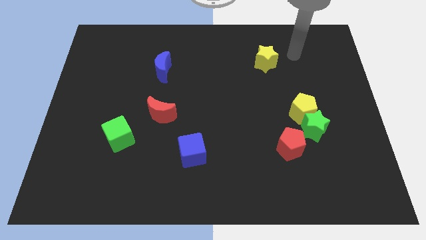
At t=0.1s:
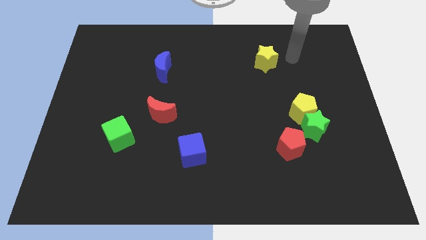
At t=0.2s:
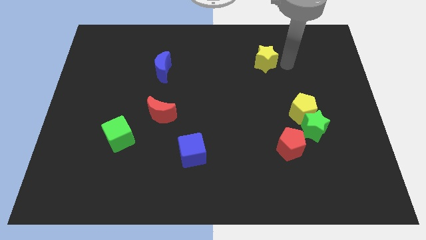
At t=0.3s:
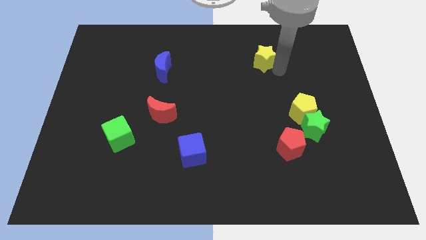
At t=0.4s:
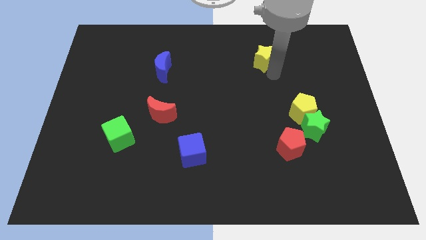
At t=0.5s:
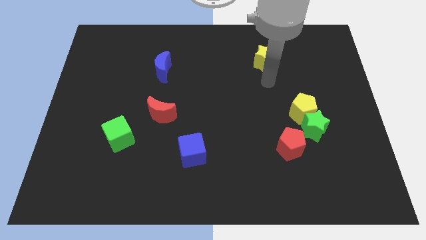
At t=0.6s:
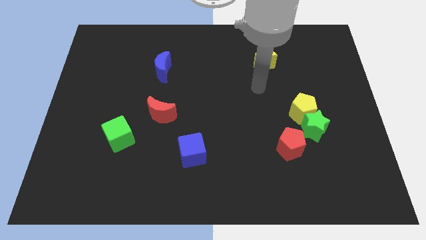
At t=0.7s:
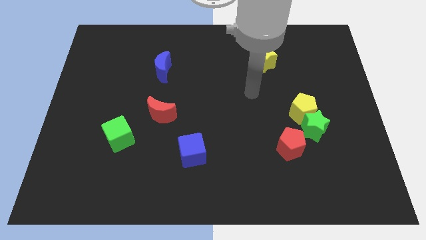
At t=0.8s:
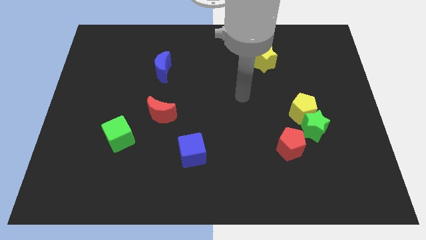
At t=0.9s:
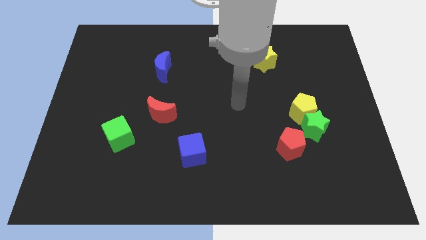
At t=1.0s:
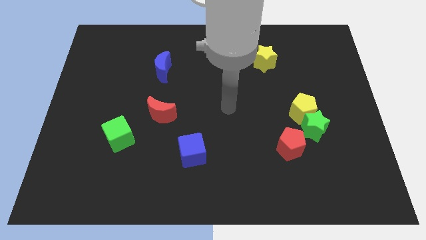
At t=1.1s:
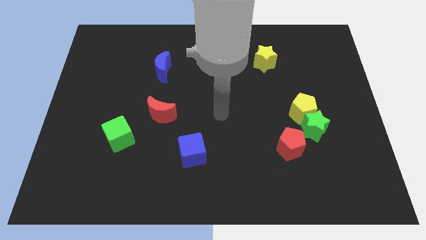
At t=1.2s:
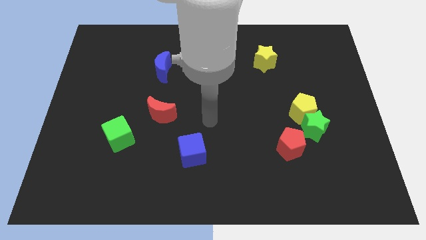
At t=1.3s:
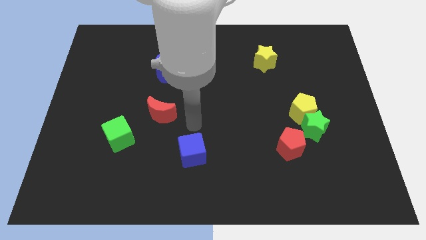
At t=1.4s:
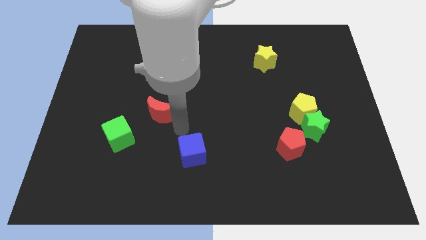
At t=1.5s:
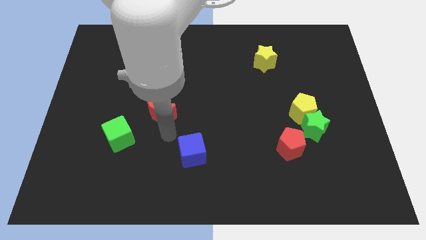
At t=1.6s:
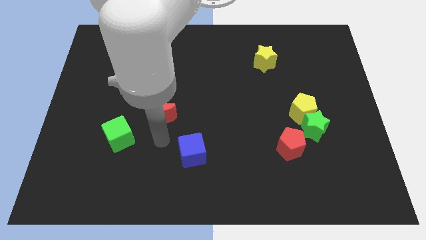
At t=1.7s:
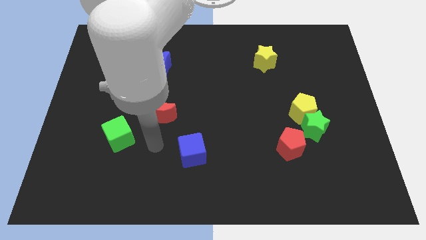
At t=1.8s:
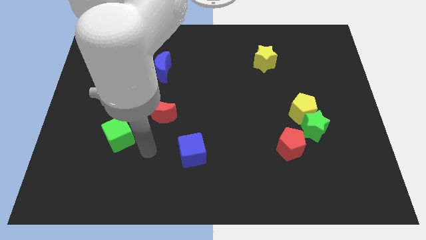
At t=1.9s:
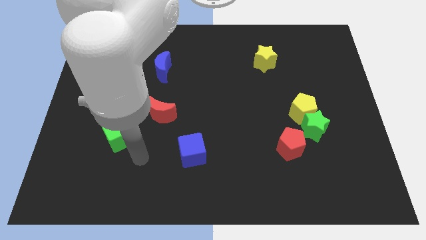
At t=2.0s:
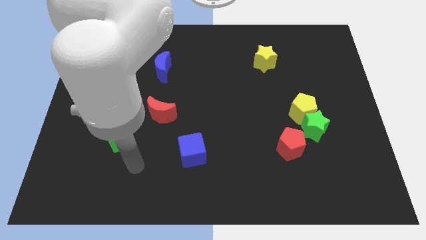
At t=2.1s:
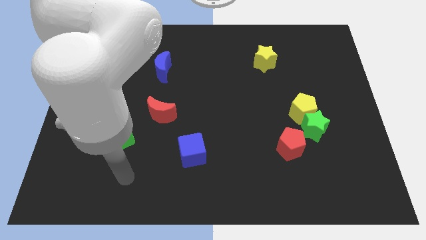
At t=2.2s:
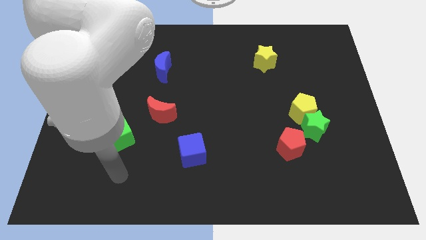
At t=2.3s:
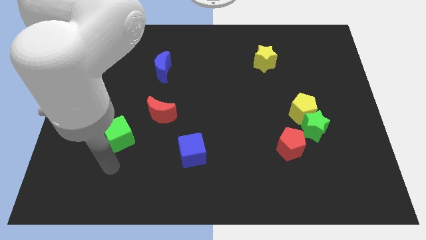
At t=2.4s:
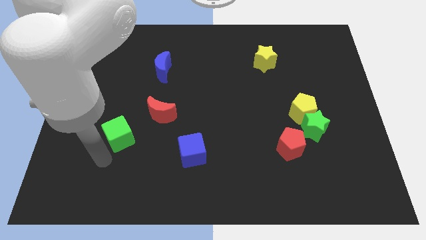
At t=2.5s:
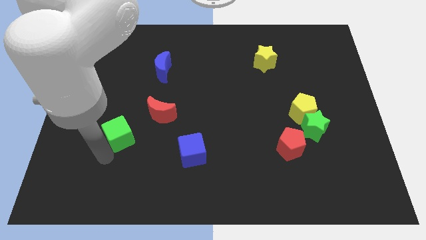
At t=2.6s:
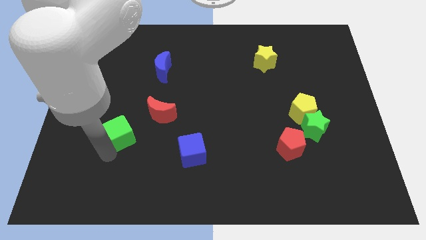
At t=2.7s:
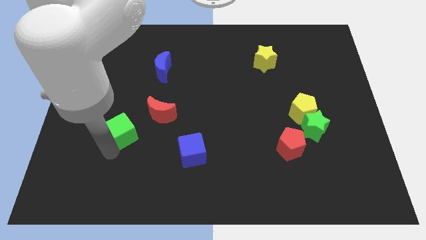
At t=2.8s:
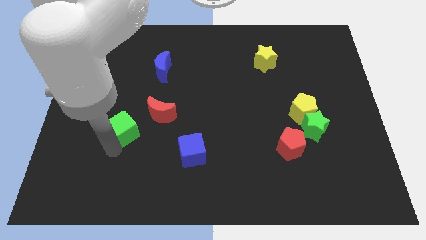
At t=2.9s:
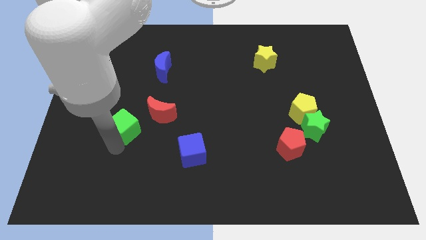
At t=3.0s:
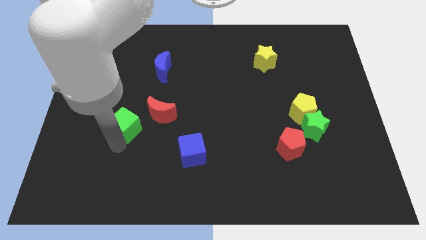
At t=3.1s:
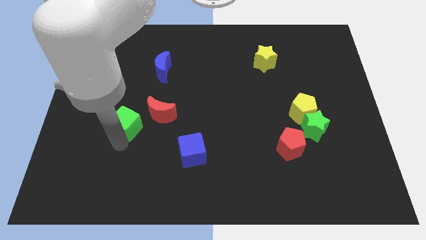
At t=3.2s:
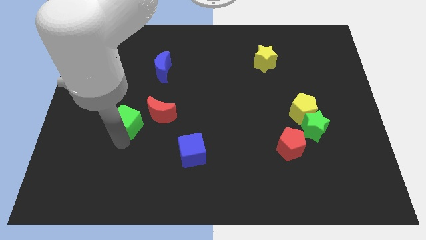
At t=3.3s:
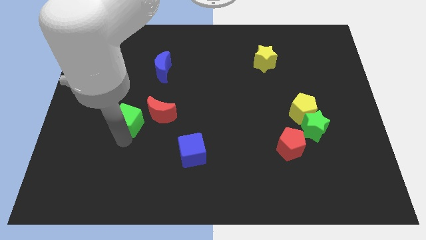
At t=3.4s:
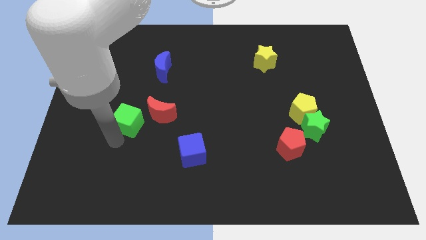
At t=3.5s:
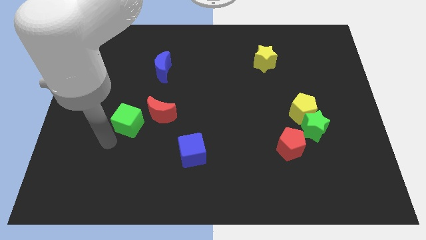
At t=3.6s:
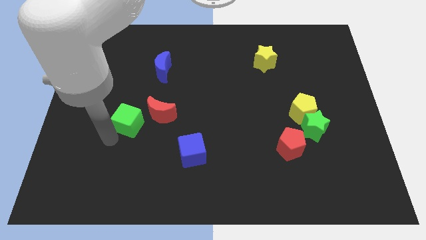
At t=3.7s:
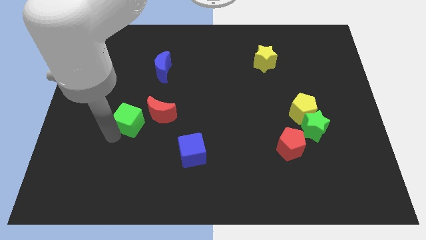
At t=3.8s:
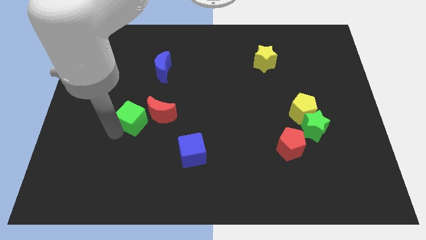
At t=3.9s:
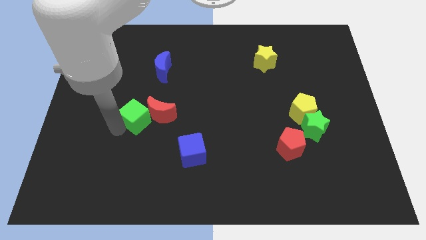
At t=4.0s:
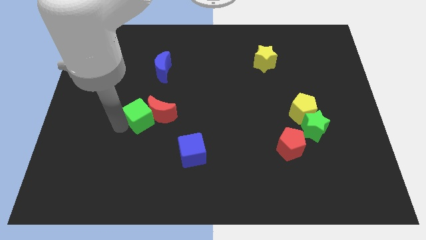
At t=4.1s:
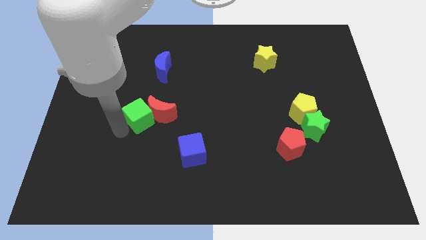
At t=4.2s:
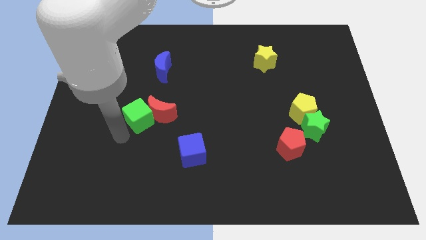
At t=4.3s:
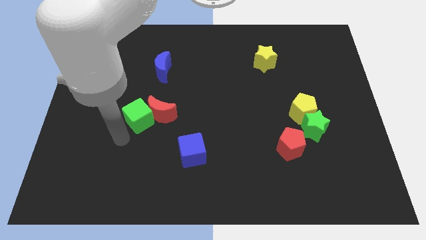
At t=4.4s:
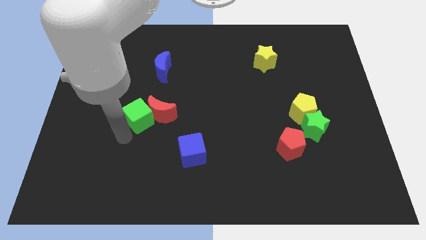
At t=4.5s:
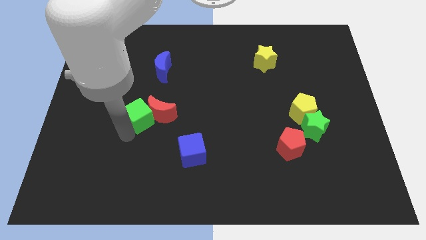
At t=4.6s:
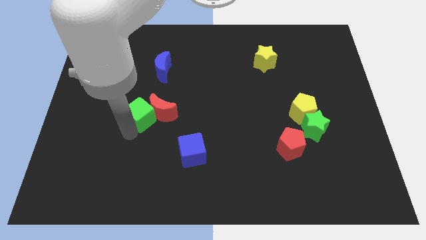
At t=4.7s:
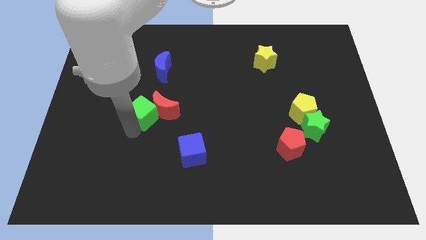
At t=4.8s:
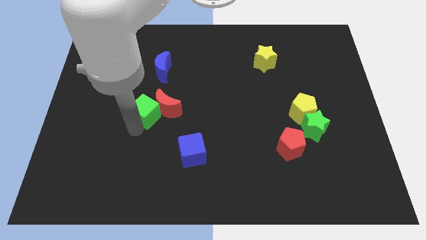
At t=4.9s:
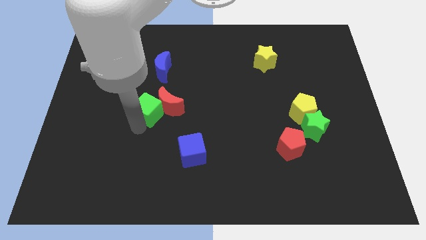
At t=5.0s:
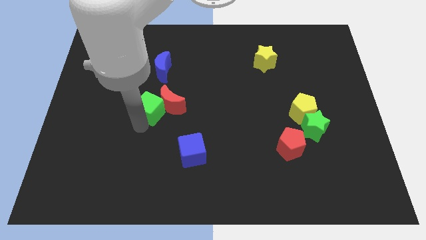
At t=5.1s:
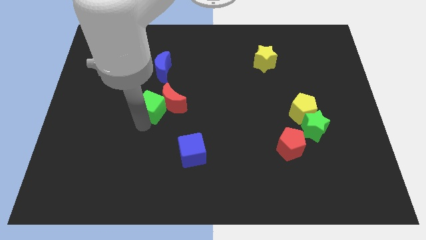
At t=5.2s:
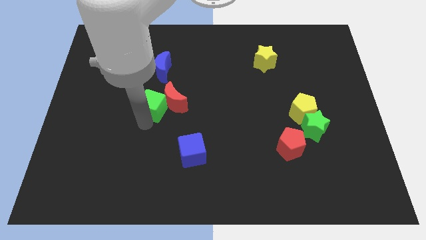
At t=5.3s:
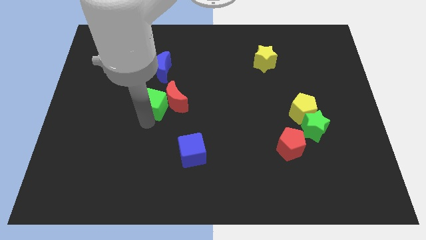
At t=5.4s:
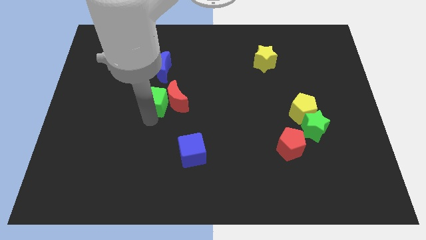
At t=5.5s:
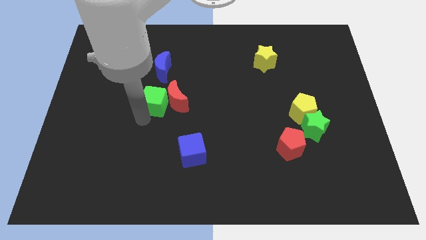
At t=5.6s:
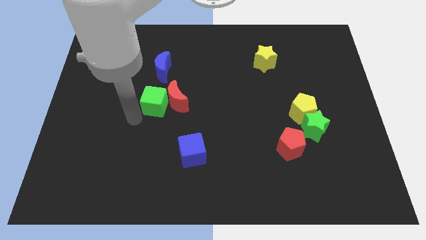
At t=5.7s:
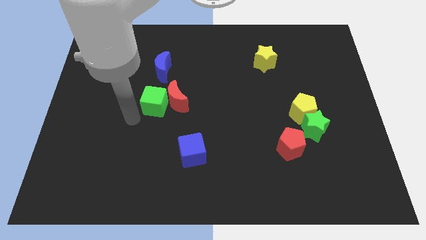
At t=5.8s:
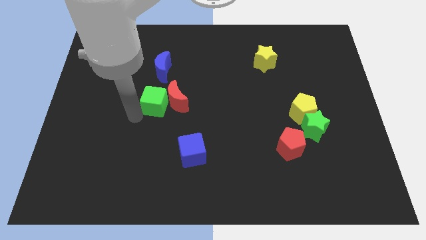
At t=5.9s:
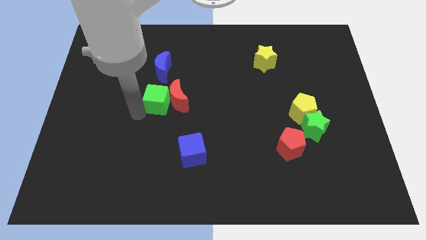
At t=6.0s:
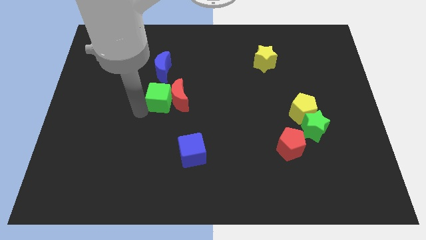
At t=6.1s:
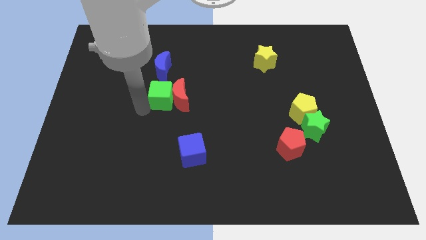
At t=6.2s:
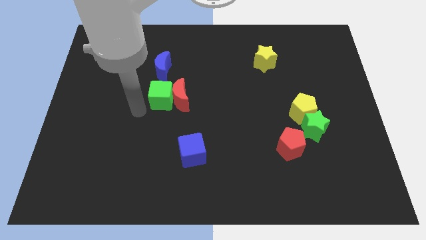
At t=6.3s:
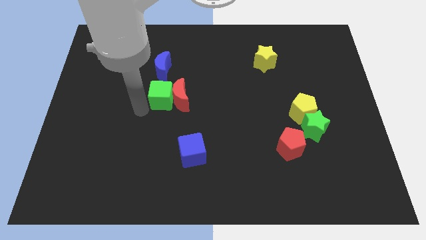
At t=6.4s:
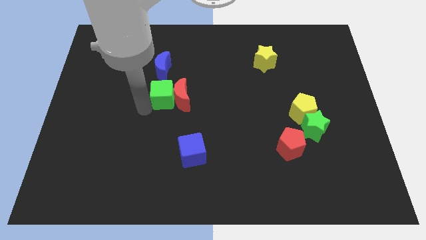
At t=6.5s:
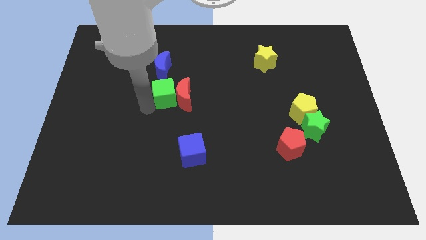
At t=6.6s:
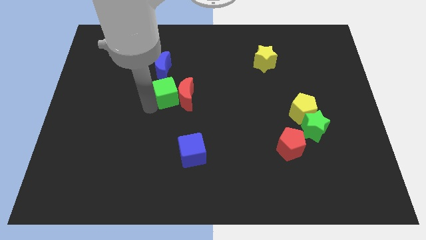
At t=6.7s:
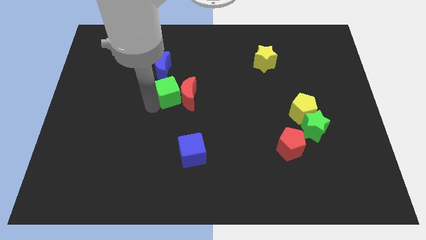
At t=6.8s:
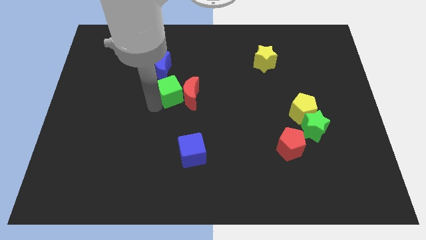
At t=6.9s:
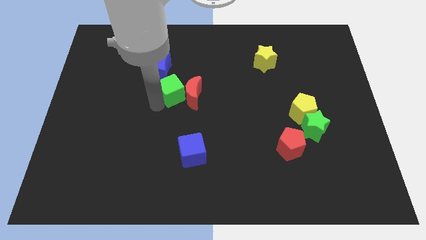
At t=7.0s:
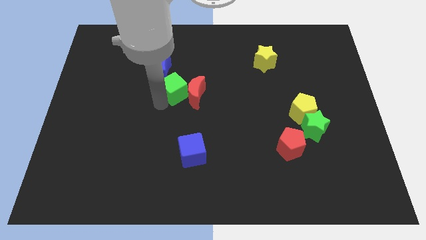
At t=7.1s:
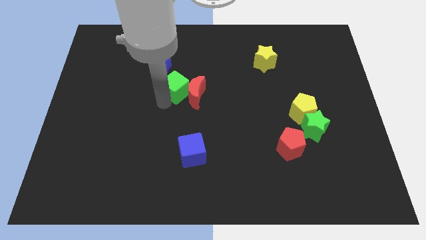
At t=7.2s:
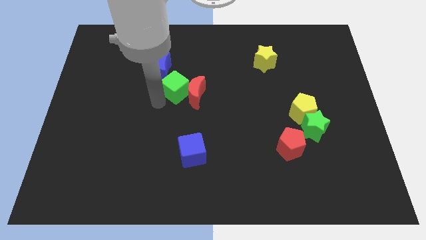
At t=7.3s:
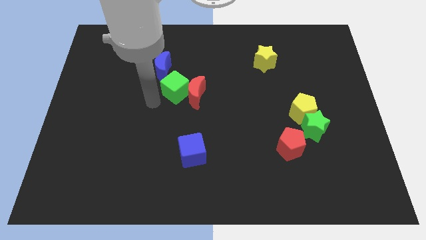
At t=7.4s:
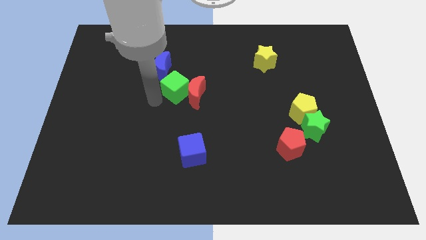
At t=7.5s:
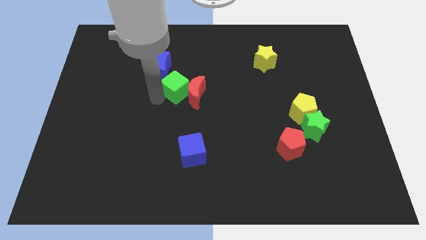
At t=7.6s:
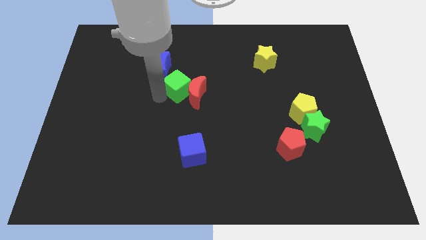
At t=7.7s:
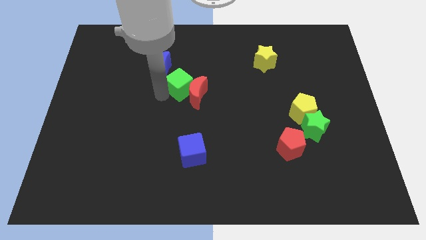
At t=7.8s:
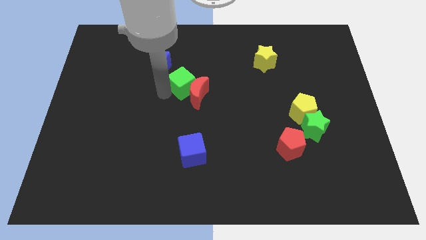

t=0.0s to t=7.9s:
move the green cube upwards and to the right
